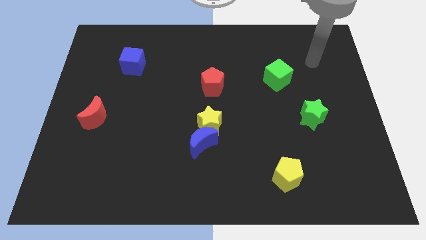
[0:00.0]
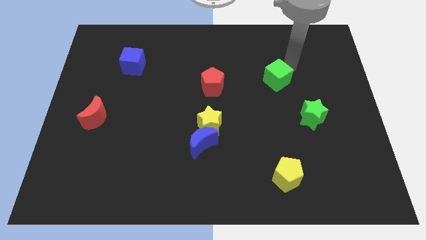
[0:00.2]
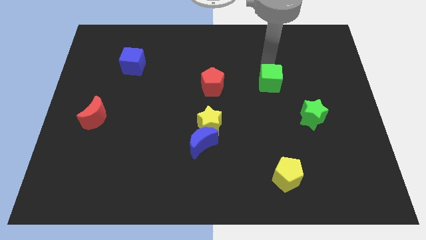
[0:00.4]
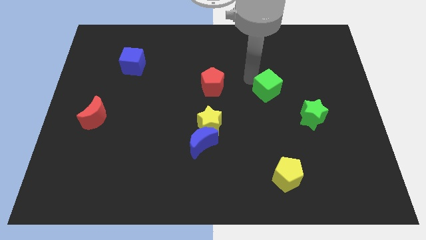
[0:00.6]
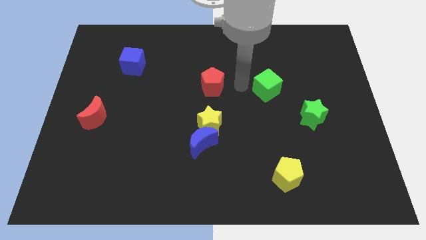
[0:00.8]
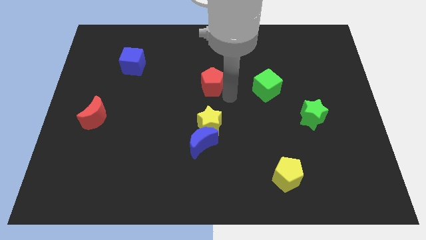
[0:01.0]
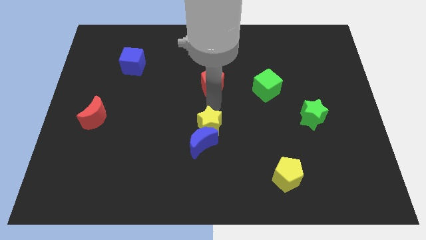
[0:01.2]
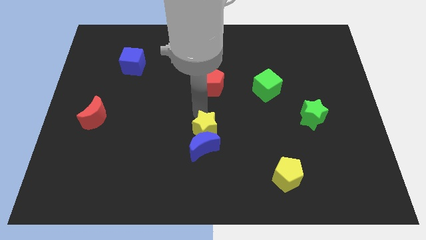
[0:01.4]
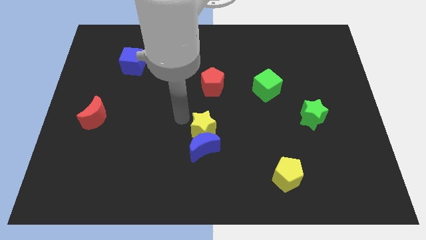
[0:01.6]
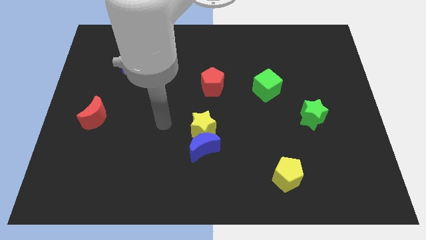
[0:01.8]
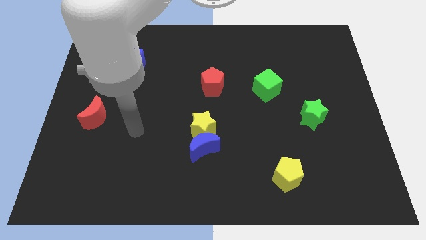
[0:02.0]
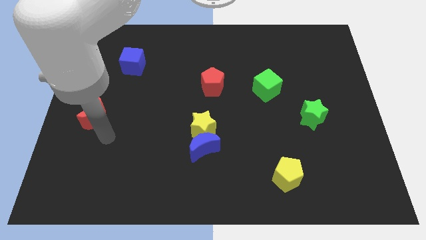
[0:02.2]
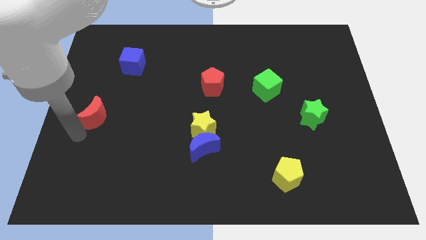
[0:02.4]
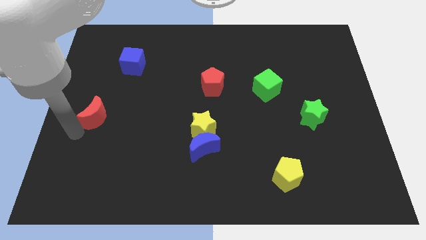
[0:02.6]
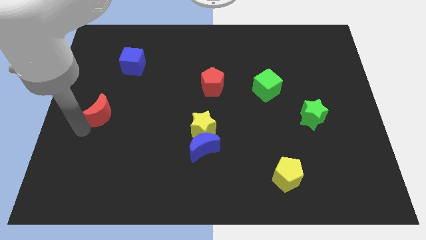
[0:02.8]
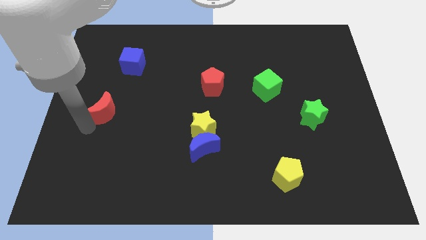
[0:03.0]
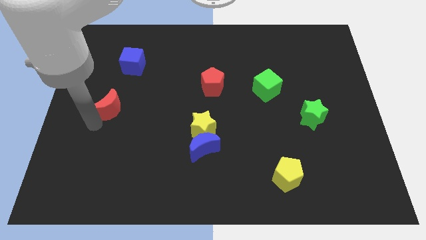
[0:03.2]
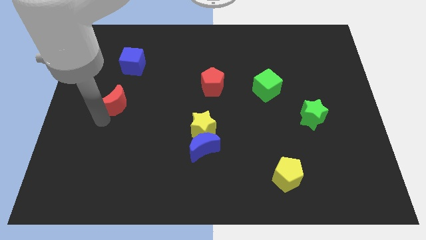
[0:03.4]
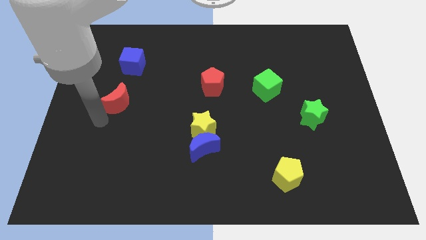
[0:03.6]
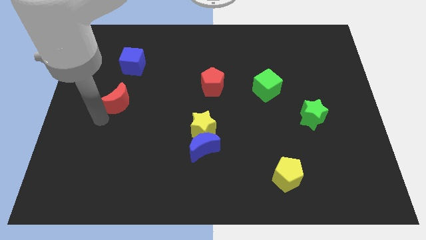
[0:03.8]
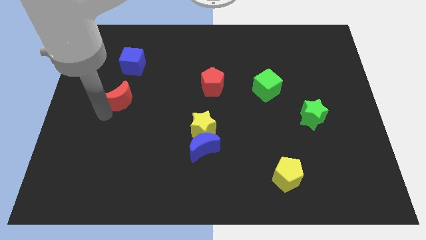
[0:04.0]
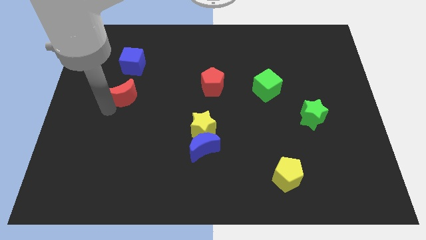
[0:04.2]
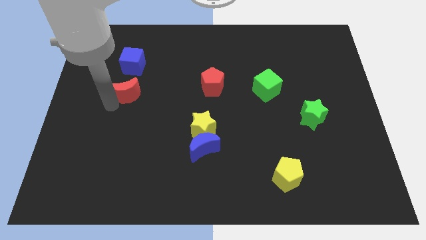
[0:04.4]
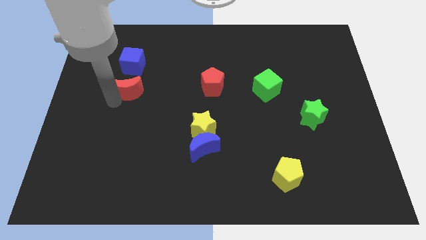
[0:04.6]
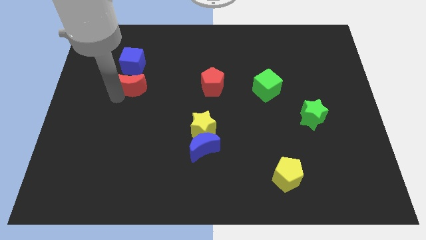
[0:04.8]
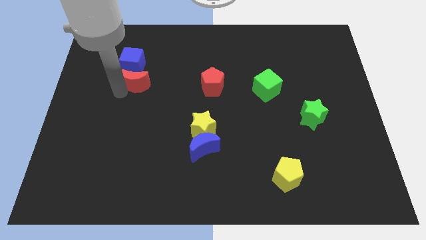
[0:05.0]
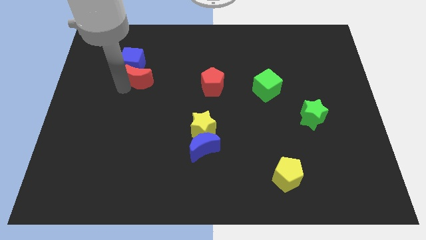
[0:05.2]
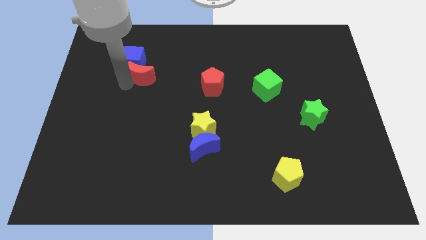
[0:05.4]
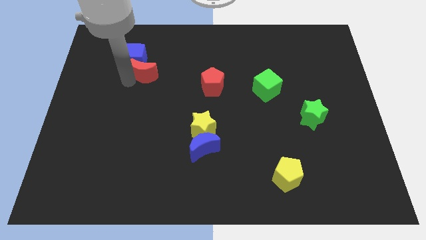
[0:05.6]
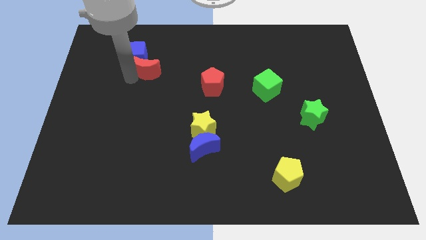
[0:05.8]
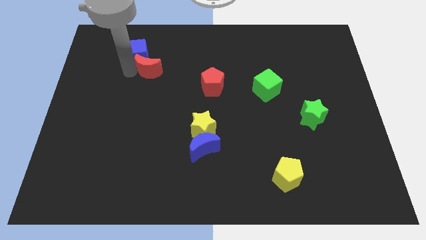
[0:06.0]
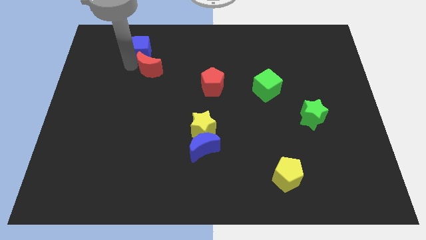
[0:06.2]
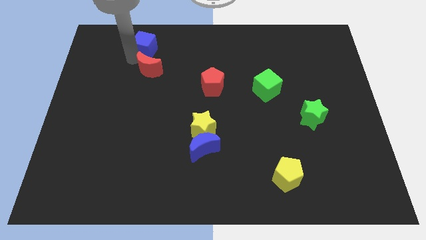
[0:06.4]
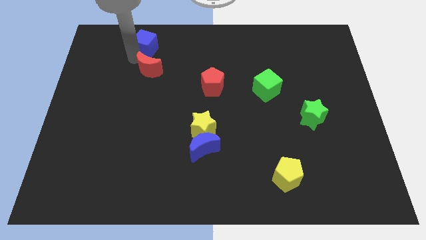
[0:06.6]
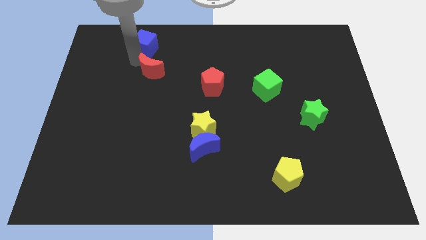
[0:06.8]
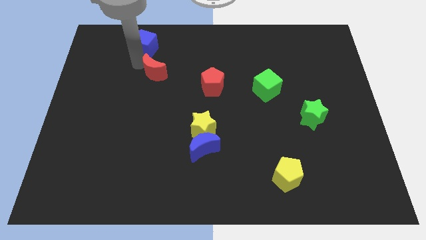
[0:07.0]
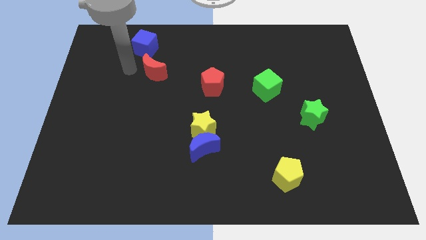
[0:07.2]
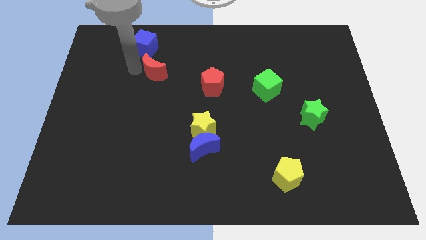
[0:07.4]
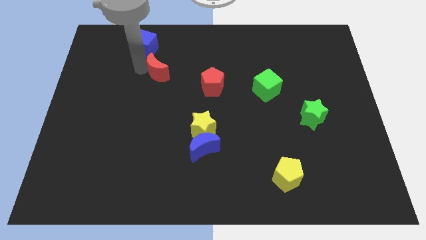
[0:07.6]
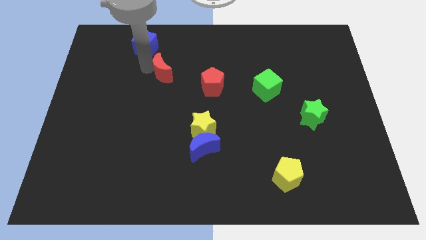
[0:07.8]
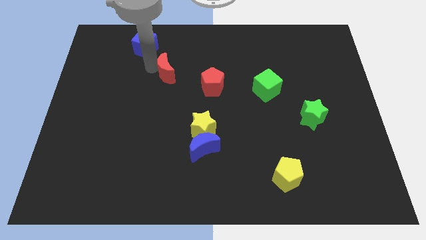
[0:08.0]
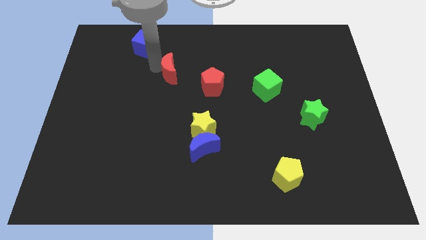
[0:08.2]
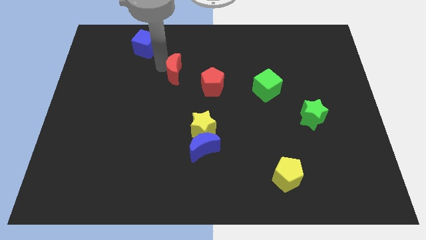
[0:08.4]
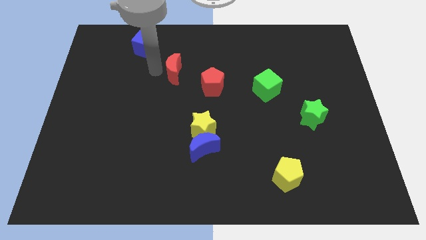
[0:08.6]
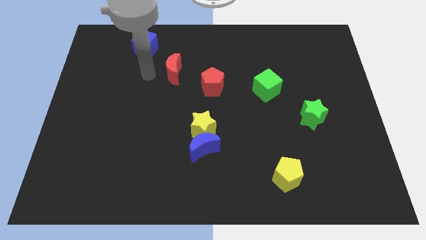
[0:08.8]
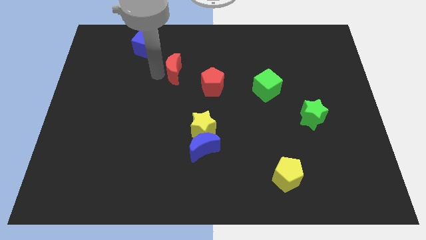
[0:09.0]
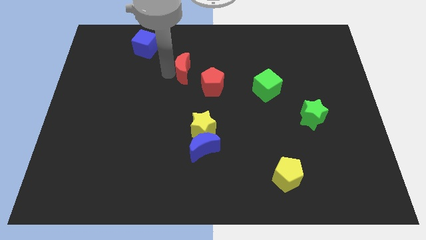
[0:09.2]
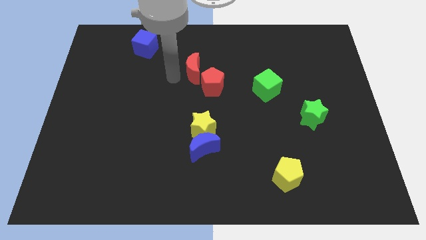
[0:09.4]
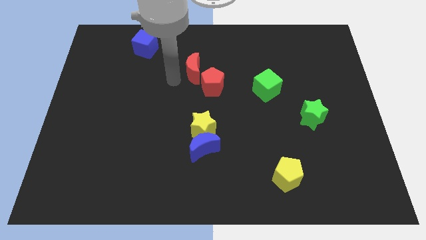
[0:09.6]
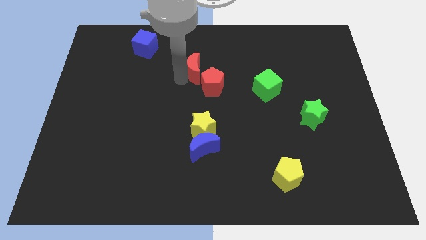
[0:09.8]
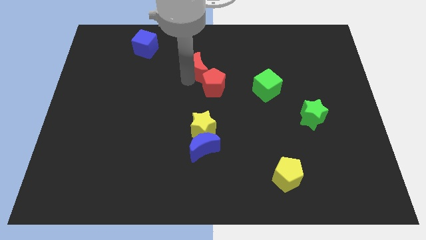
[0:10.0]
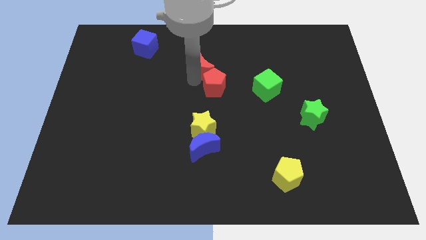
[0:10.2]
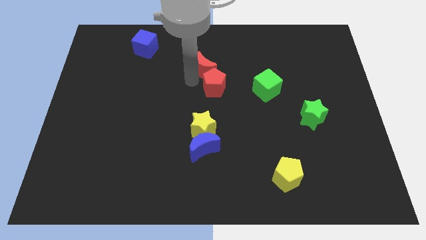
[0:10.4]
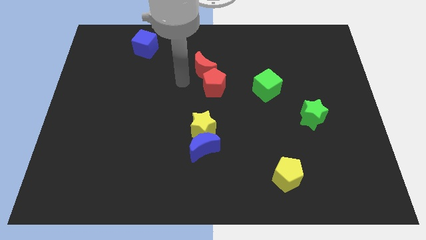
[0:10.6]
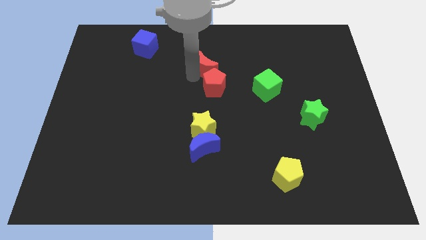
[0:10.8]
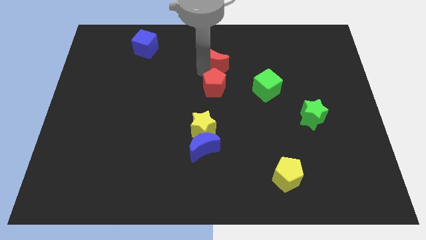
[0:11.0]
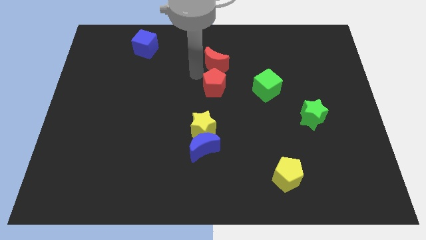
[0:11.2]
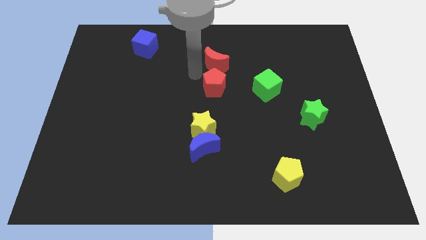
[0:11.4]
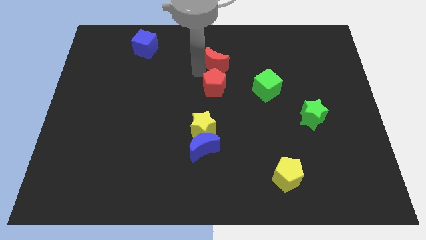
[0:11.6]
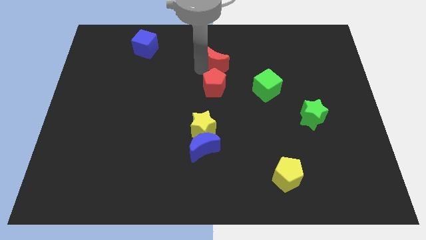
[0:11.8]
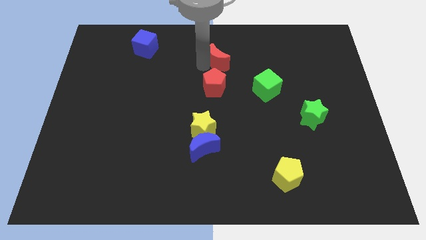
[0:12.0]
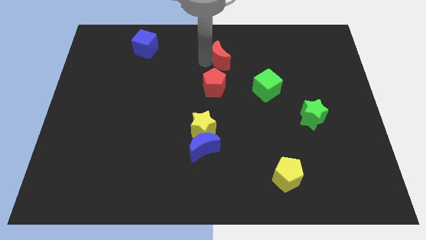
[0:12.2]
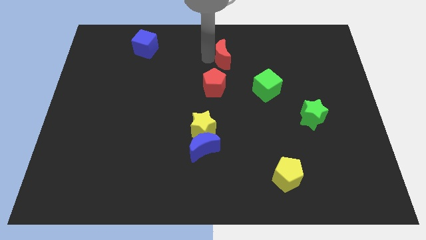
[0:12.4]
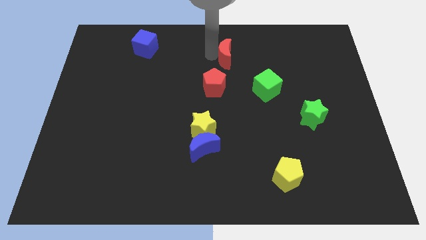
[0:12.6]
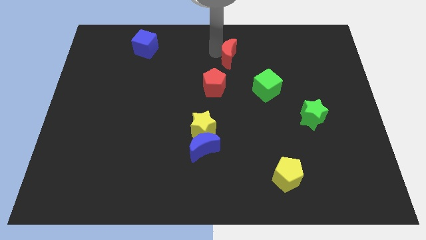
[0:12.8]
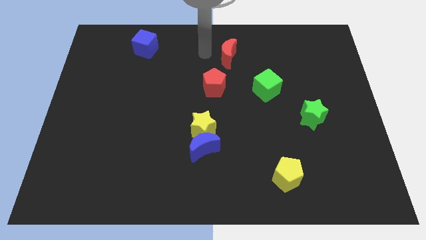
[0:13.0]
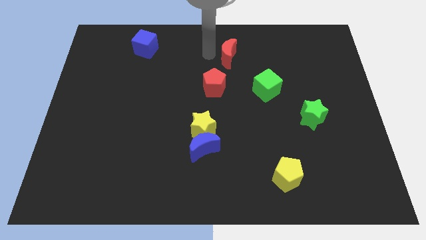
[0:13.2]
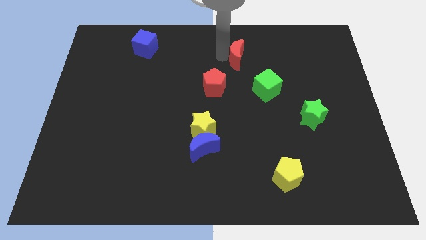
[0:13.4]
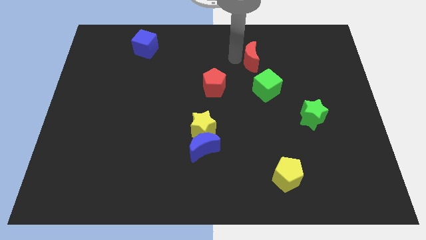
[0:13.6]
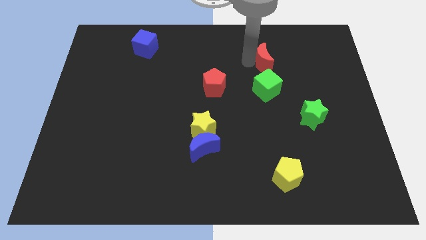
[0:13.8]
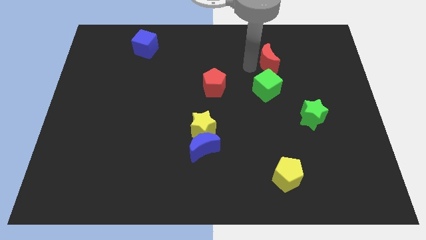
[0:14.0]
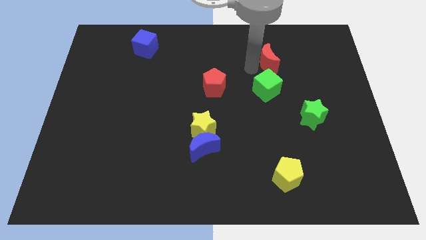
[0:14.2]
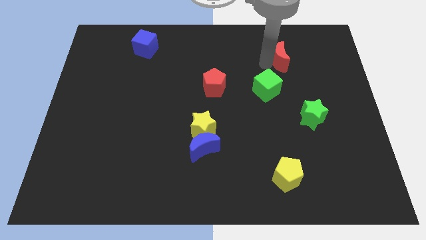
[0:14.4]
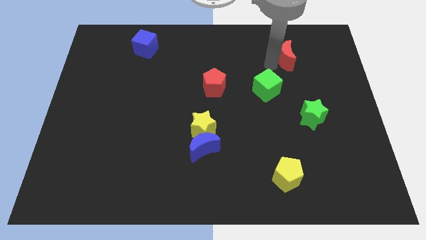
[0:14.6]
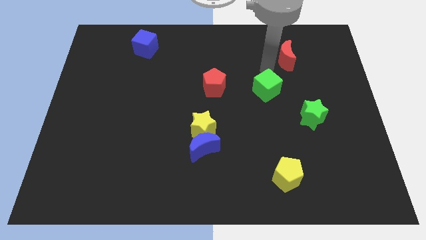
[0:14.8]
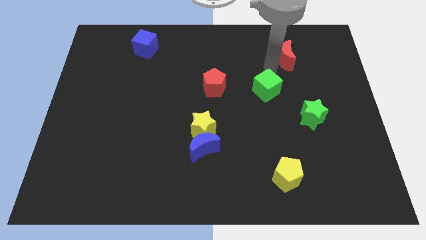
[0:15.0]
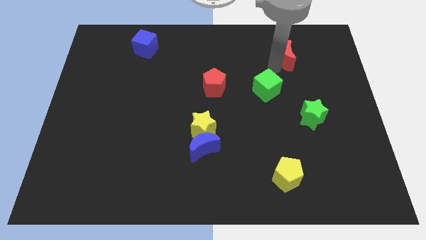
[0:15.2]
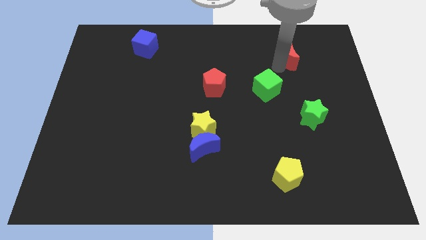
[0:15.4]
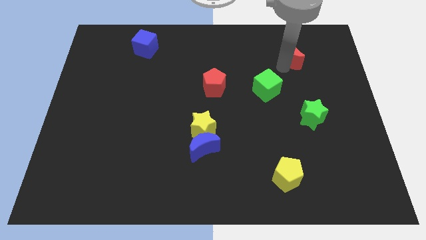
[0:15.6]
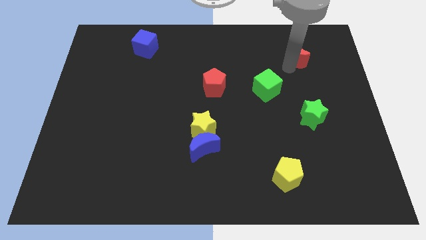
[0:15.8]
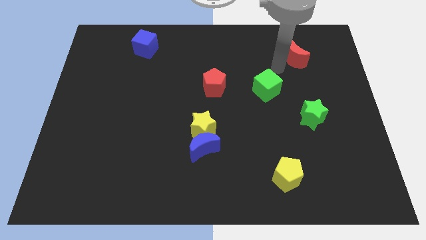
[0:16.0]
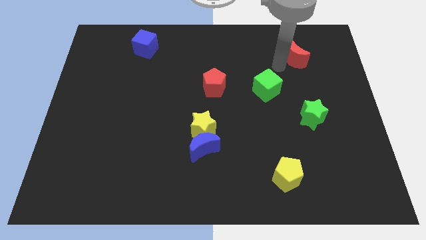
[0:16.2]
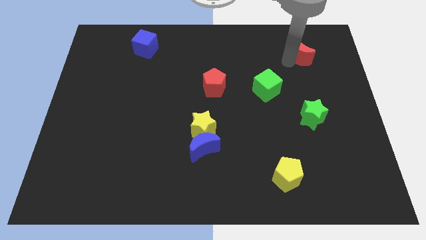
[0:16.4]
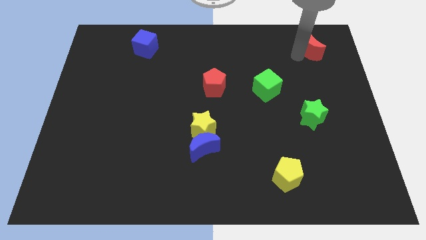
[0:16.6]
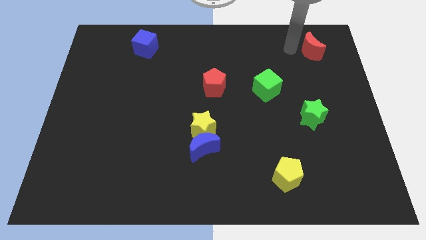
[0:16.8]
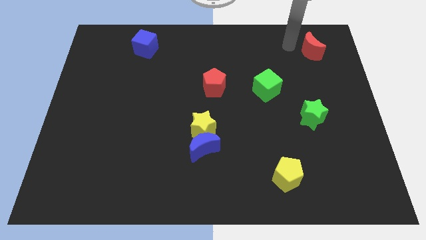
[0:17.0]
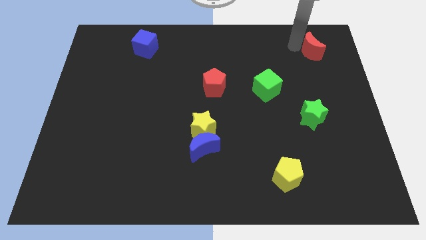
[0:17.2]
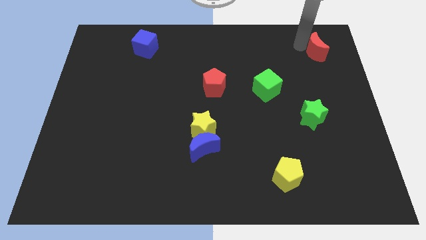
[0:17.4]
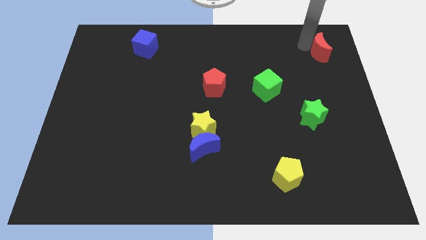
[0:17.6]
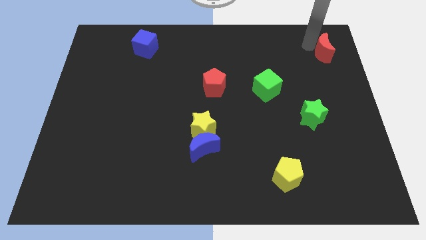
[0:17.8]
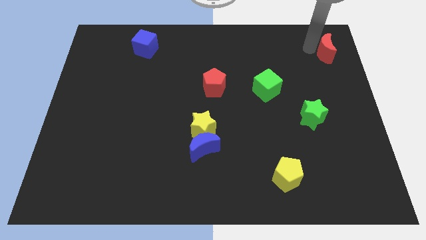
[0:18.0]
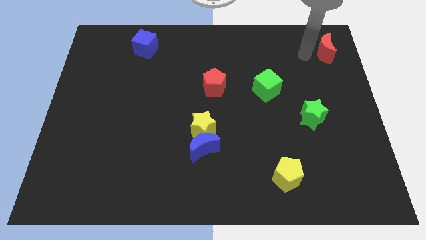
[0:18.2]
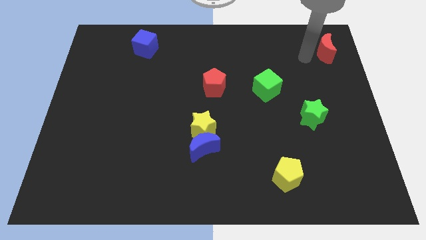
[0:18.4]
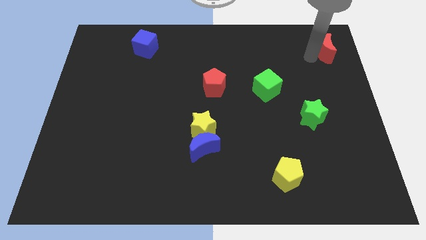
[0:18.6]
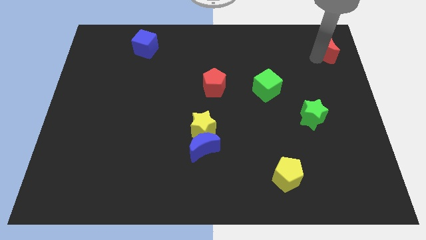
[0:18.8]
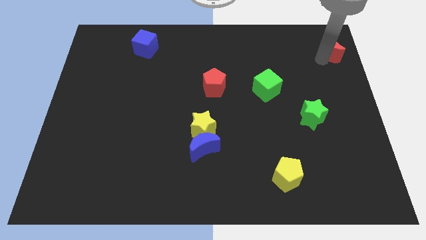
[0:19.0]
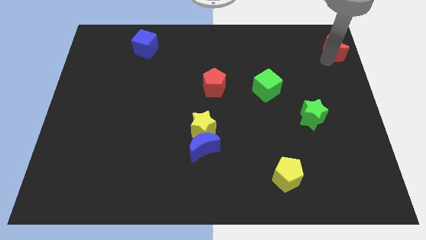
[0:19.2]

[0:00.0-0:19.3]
put the red moon to the top right
